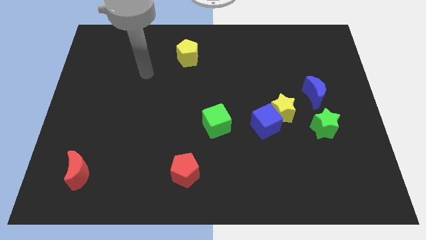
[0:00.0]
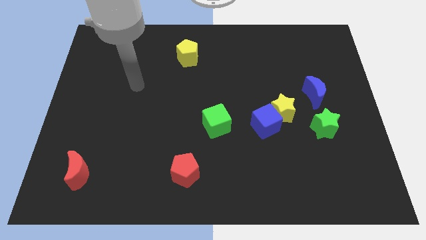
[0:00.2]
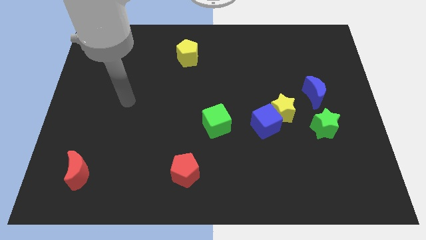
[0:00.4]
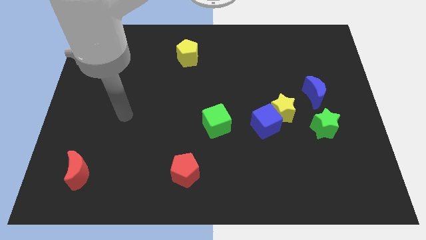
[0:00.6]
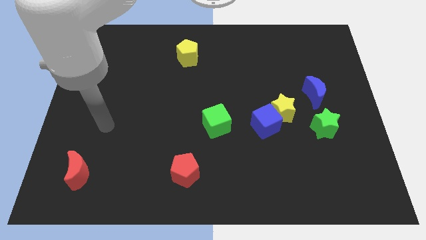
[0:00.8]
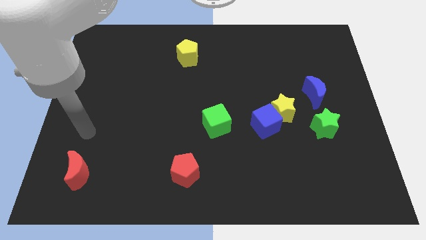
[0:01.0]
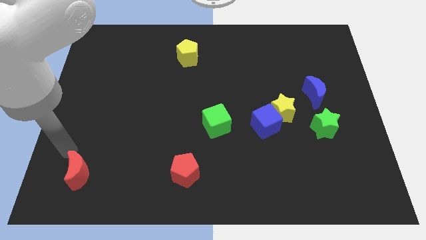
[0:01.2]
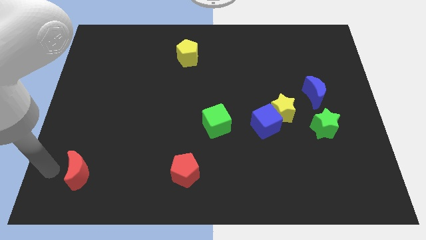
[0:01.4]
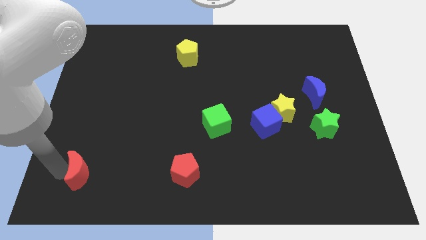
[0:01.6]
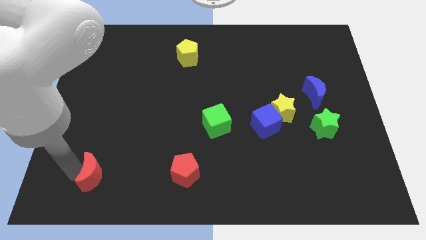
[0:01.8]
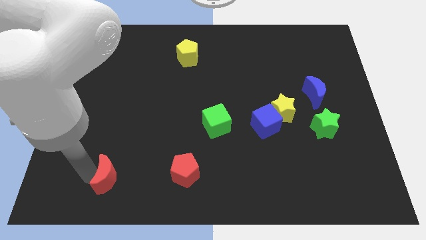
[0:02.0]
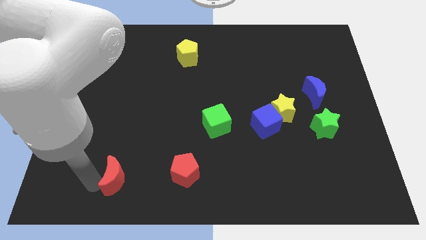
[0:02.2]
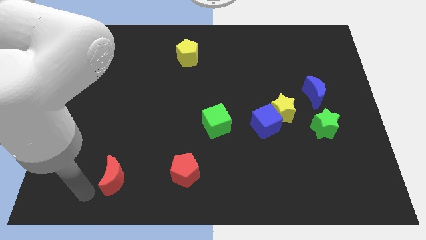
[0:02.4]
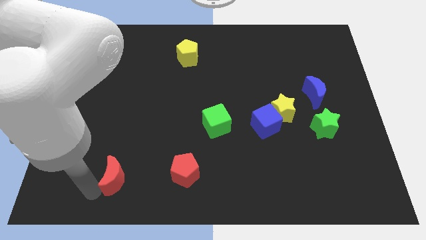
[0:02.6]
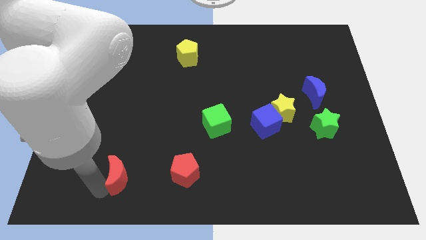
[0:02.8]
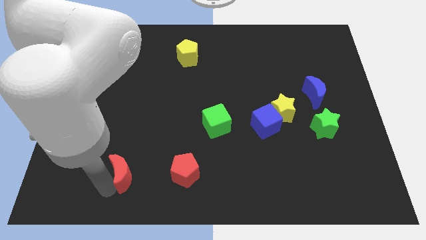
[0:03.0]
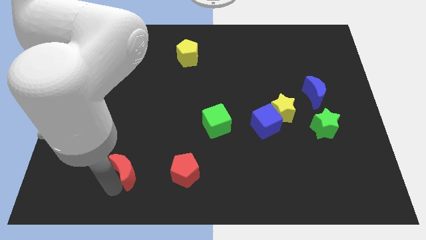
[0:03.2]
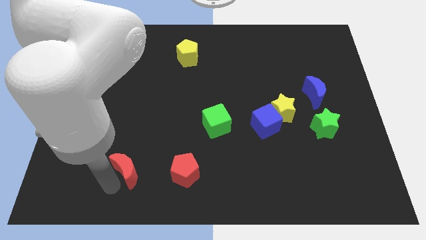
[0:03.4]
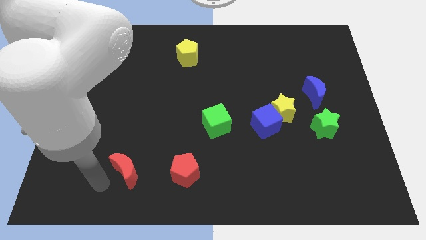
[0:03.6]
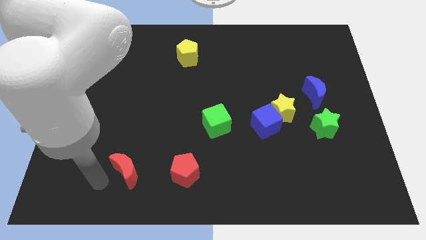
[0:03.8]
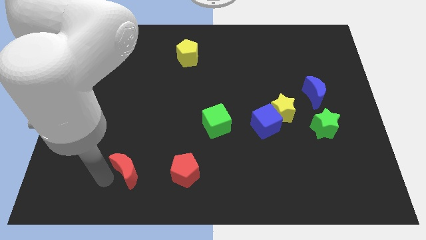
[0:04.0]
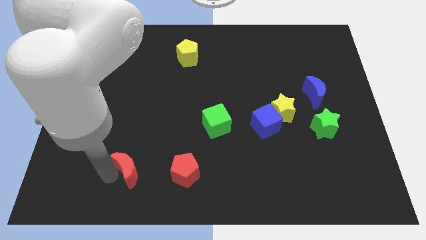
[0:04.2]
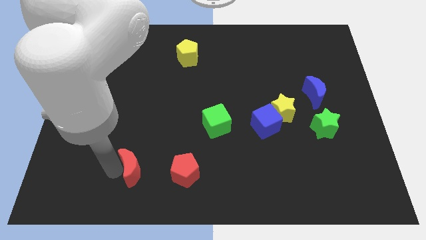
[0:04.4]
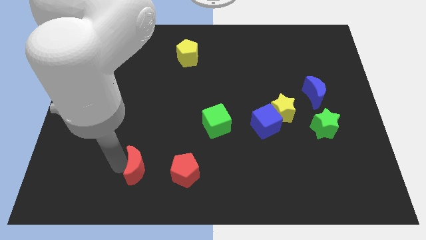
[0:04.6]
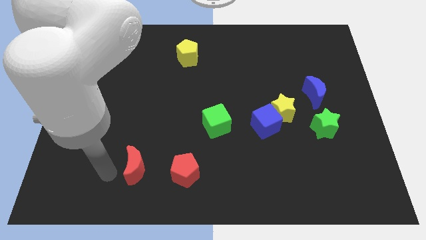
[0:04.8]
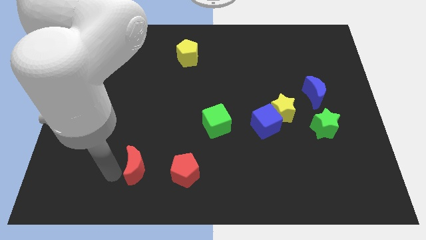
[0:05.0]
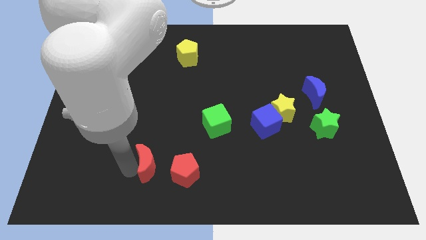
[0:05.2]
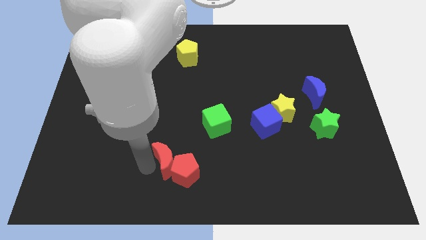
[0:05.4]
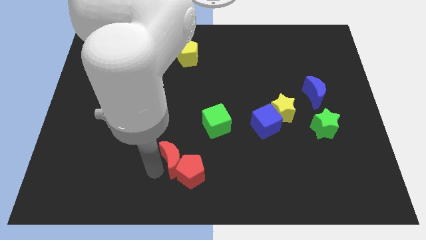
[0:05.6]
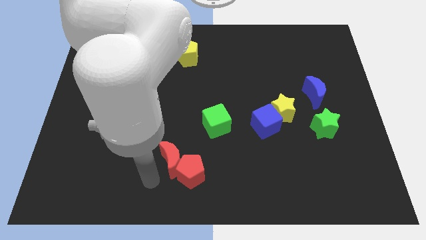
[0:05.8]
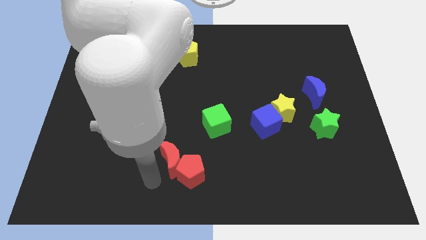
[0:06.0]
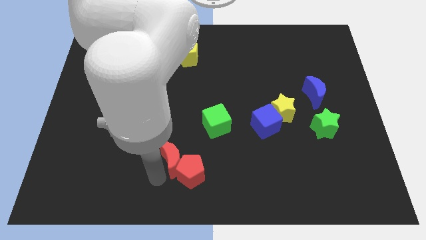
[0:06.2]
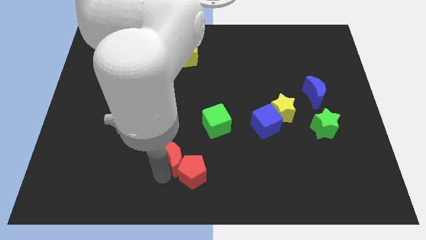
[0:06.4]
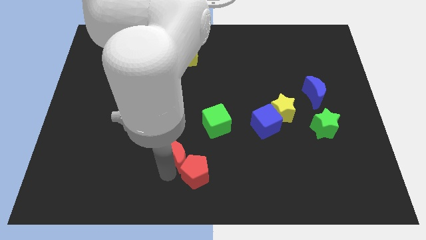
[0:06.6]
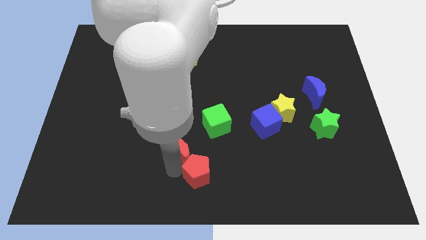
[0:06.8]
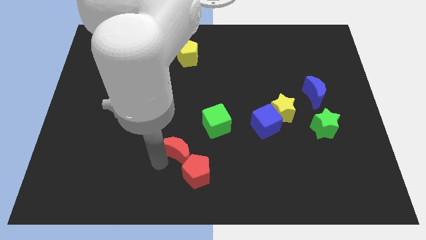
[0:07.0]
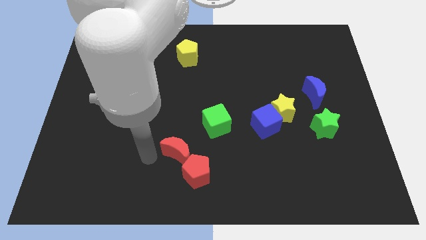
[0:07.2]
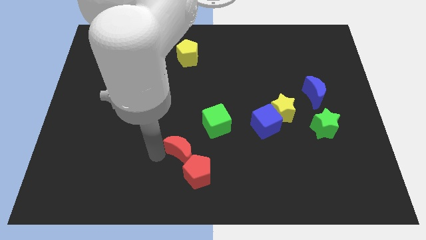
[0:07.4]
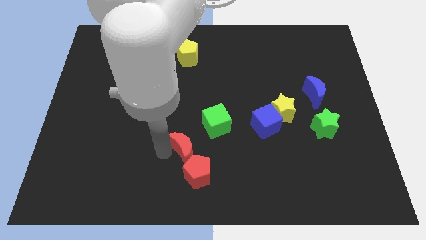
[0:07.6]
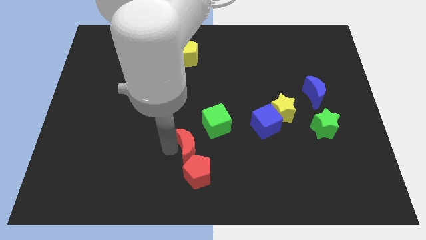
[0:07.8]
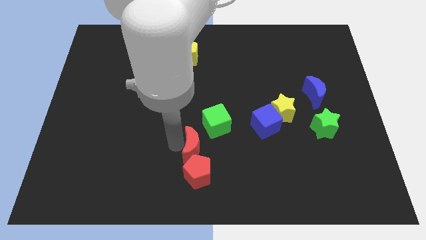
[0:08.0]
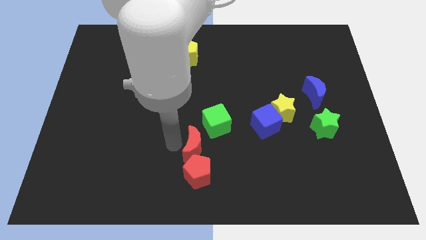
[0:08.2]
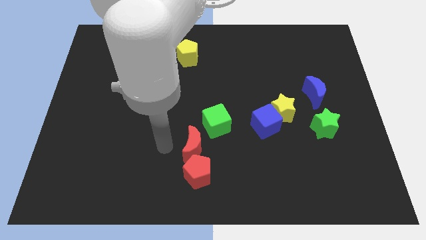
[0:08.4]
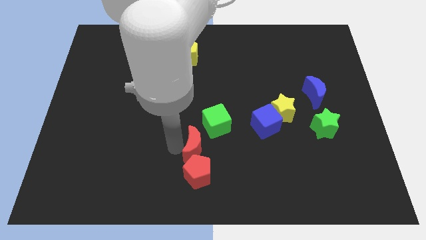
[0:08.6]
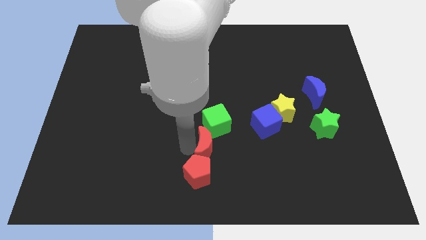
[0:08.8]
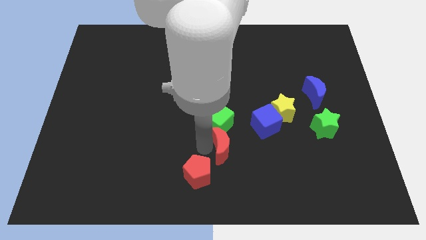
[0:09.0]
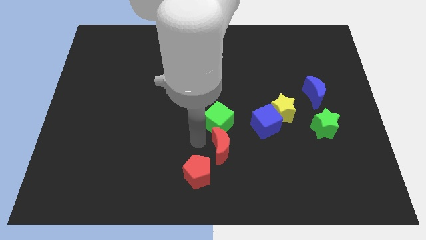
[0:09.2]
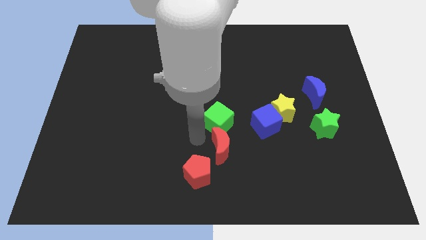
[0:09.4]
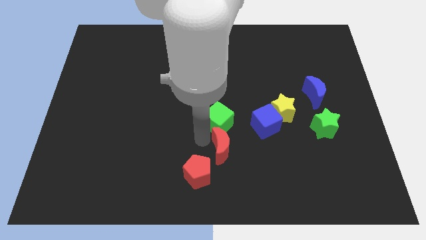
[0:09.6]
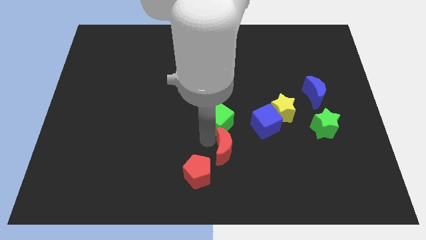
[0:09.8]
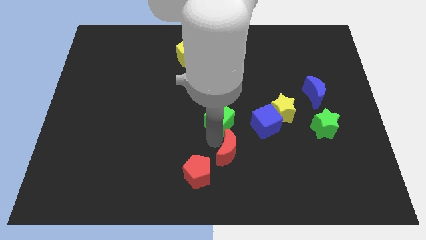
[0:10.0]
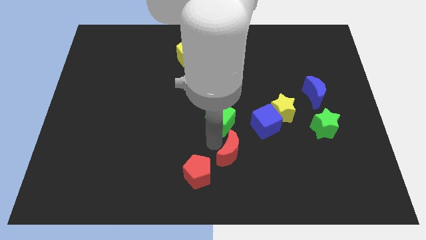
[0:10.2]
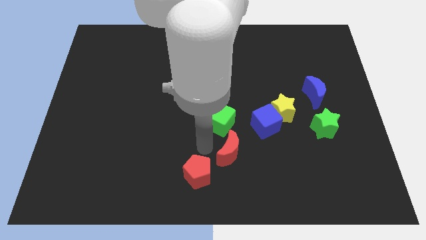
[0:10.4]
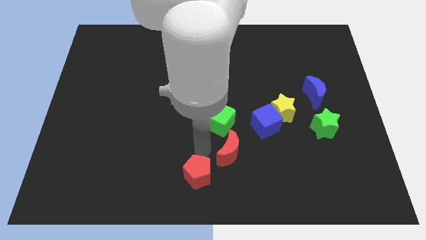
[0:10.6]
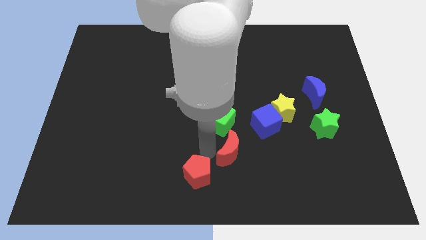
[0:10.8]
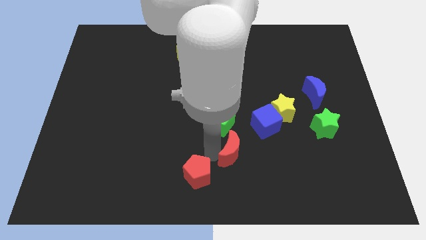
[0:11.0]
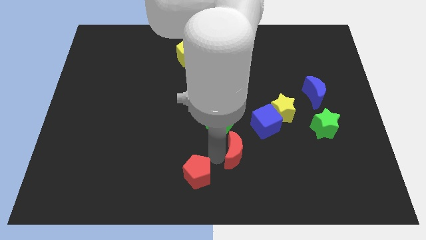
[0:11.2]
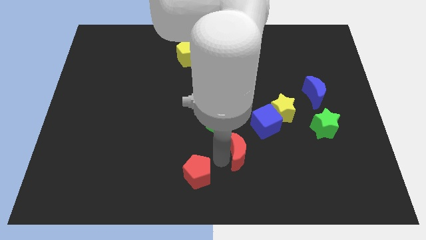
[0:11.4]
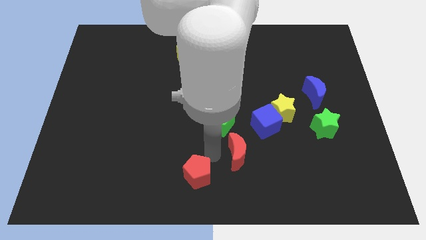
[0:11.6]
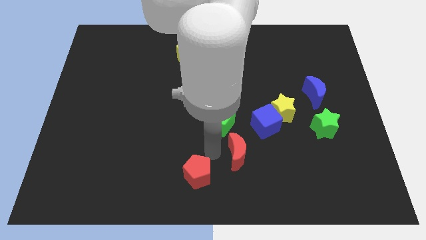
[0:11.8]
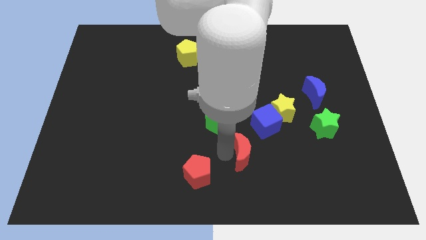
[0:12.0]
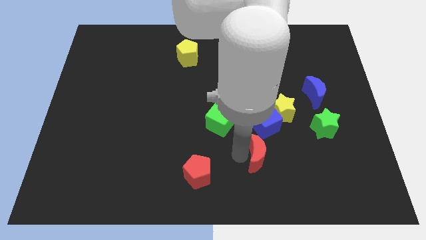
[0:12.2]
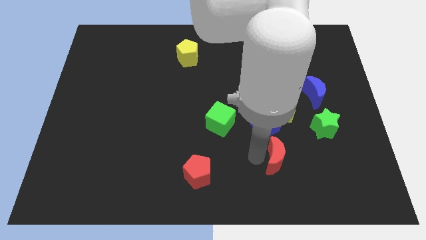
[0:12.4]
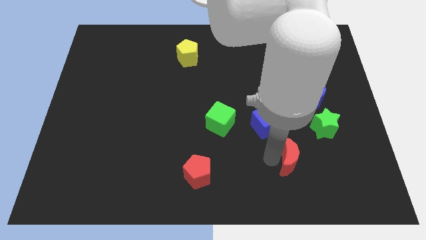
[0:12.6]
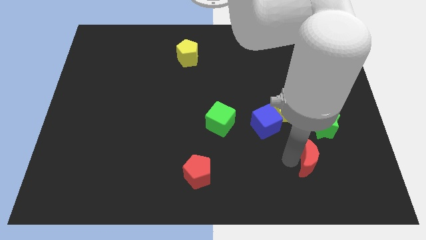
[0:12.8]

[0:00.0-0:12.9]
put the red moon to the bottom side of the green star
